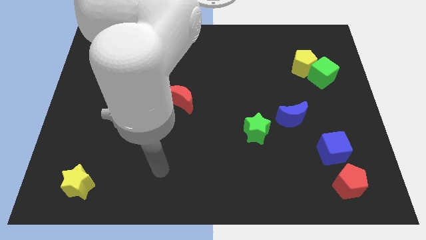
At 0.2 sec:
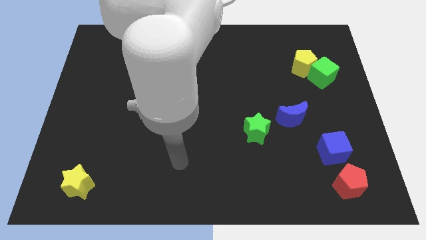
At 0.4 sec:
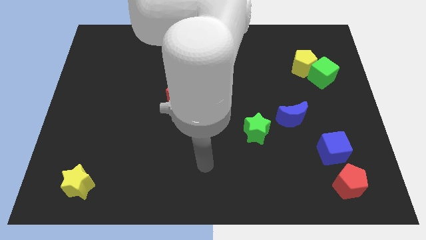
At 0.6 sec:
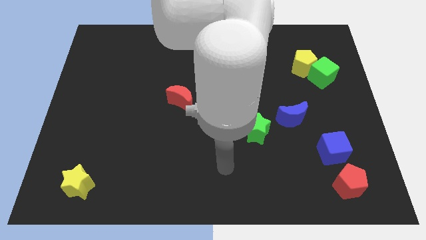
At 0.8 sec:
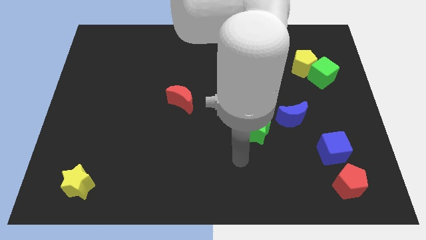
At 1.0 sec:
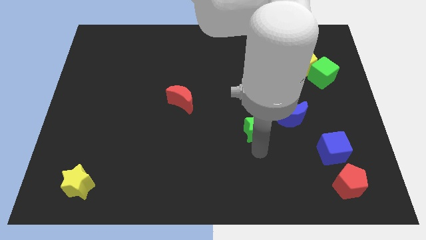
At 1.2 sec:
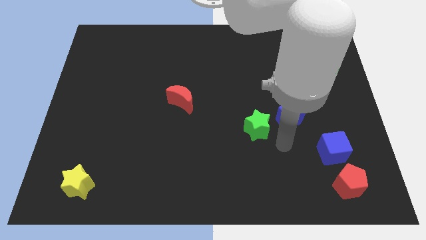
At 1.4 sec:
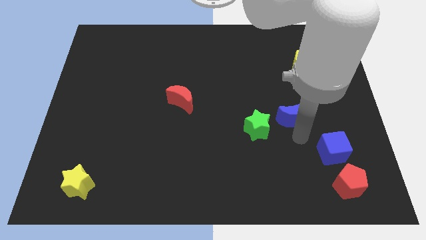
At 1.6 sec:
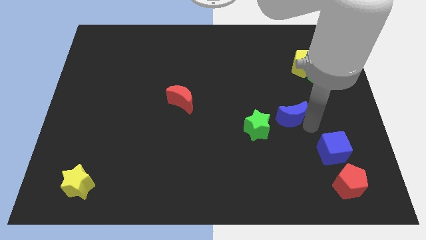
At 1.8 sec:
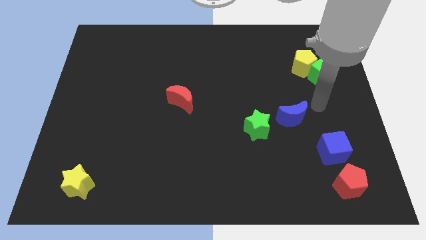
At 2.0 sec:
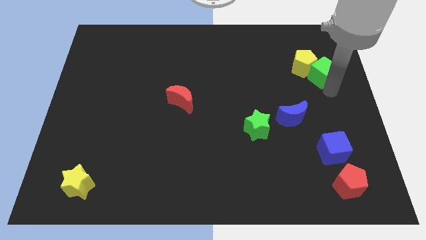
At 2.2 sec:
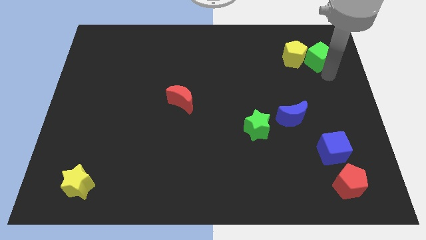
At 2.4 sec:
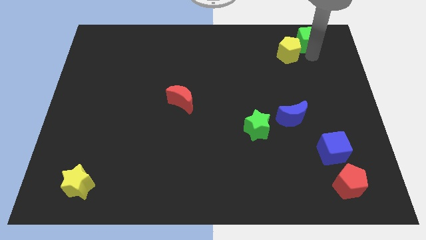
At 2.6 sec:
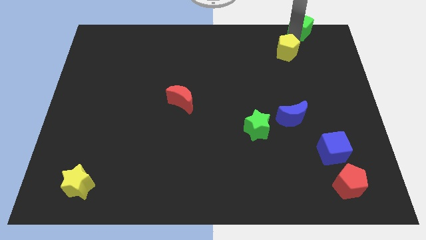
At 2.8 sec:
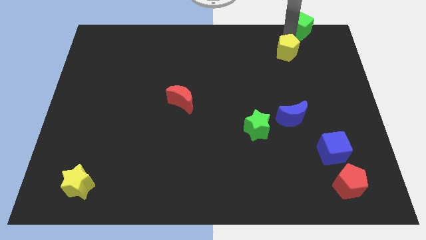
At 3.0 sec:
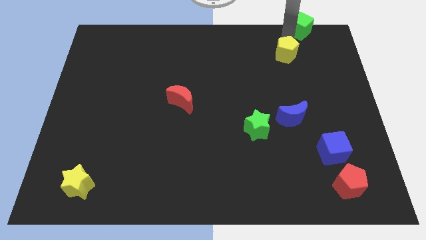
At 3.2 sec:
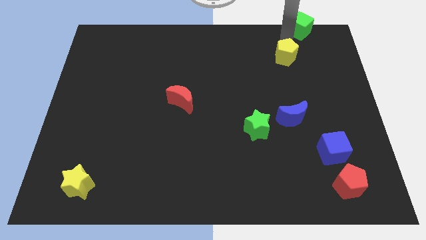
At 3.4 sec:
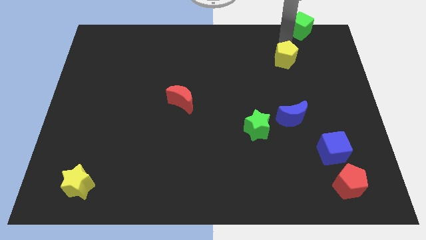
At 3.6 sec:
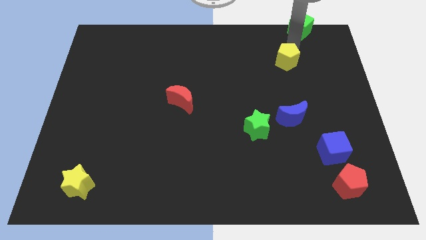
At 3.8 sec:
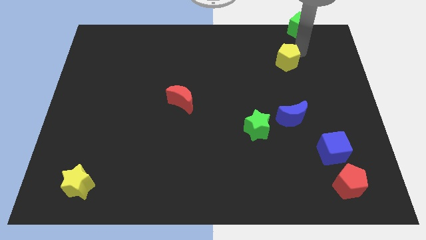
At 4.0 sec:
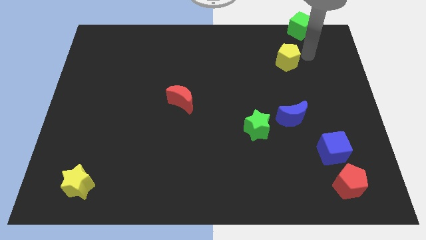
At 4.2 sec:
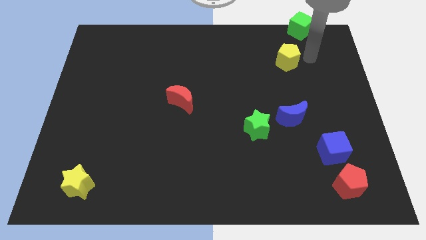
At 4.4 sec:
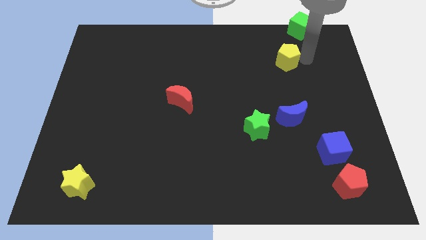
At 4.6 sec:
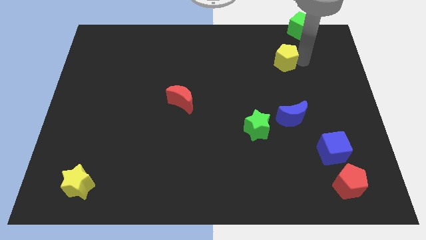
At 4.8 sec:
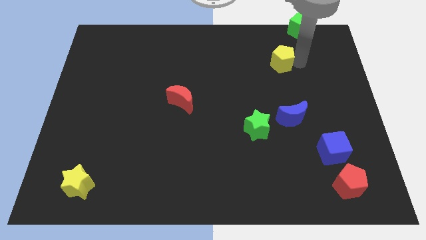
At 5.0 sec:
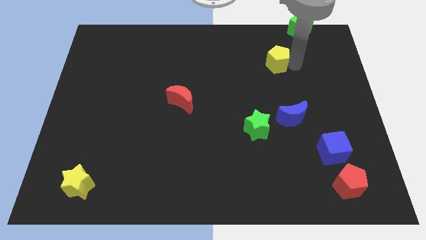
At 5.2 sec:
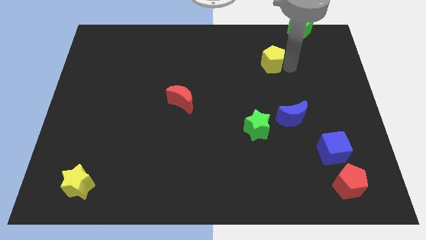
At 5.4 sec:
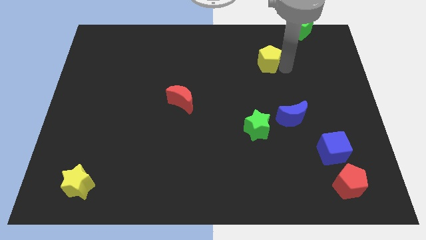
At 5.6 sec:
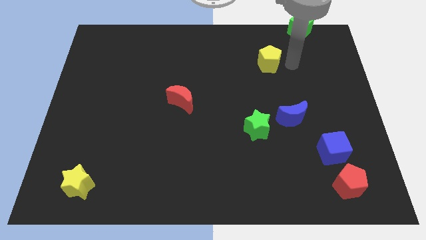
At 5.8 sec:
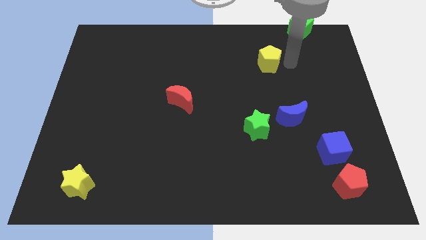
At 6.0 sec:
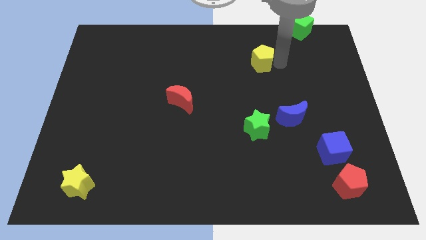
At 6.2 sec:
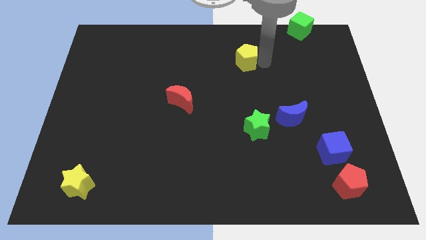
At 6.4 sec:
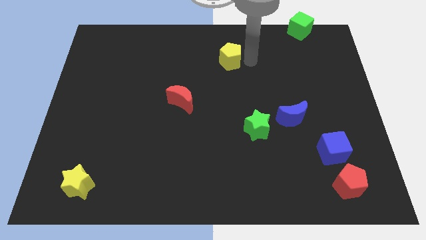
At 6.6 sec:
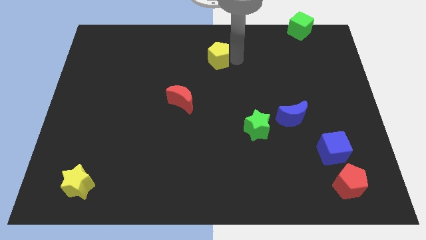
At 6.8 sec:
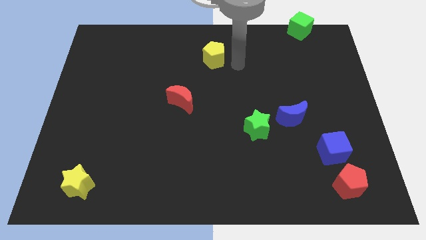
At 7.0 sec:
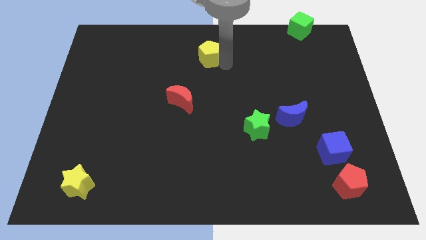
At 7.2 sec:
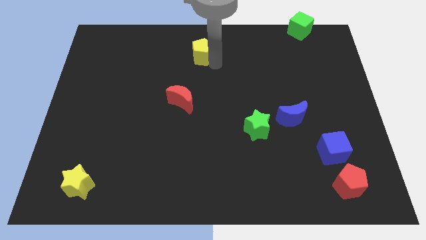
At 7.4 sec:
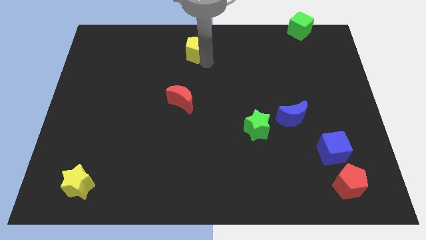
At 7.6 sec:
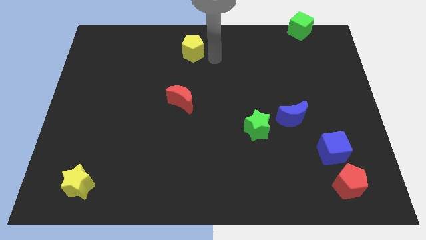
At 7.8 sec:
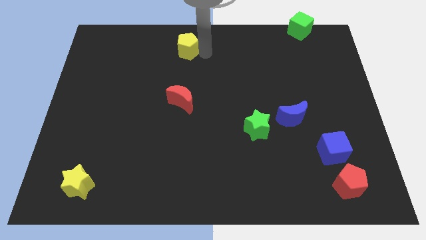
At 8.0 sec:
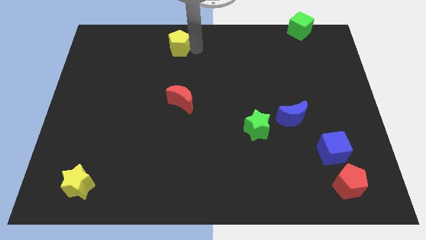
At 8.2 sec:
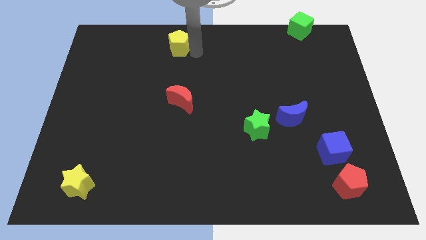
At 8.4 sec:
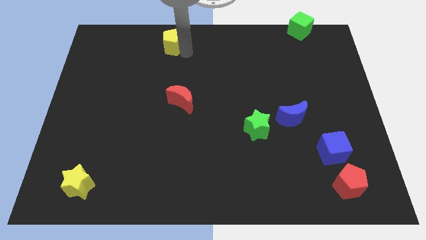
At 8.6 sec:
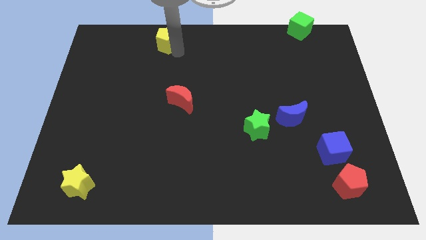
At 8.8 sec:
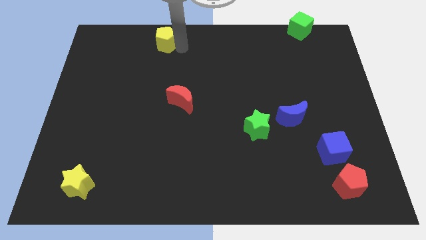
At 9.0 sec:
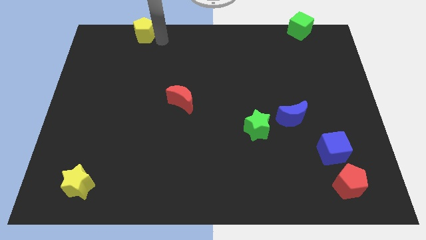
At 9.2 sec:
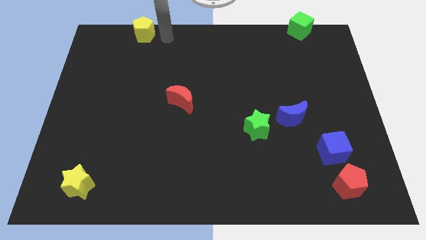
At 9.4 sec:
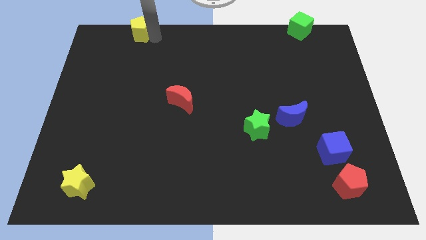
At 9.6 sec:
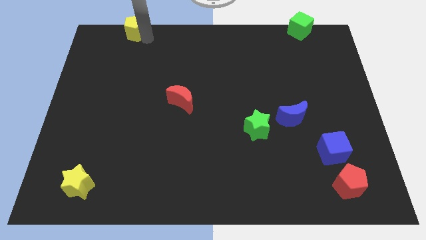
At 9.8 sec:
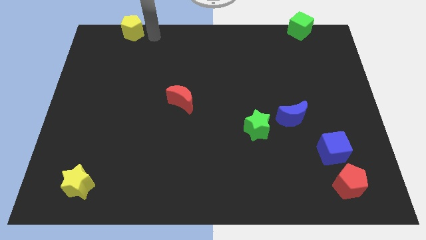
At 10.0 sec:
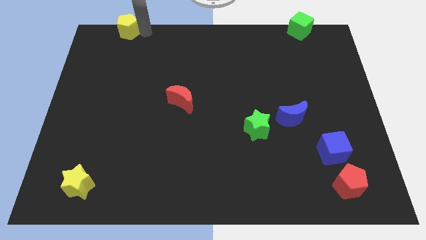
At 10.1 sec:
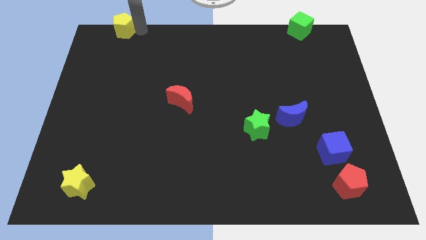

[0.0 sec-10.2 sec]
slide the yellow pentagon to the top left of the board

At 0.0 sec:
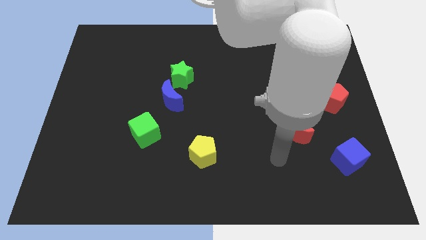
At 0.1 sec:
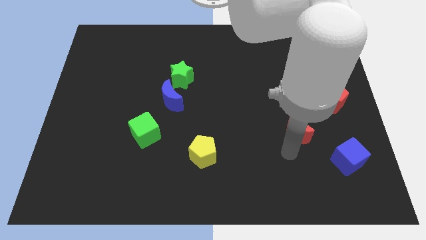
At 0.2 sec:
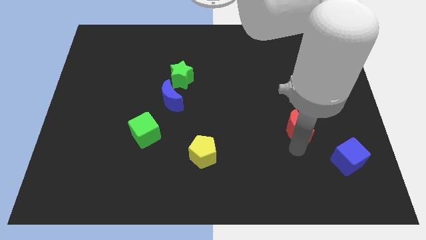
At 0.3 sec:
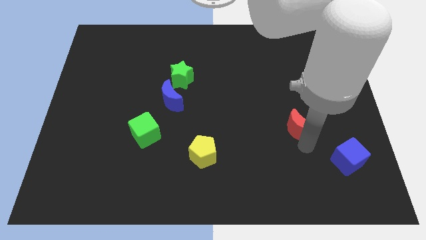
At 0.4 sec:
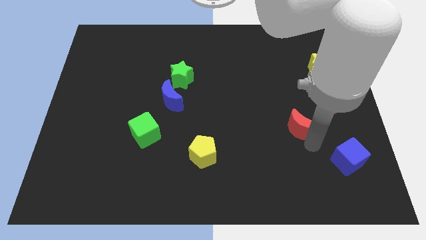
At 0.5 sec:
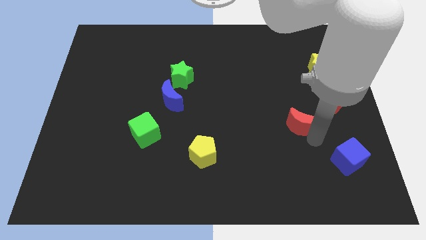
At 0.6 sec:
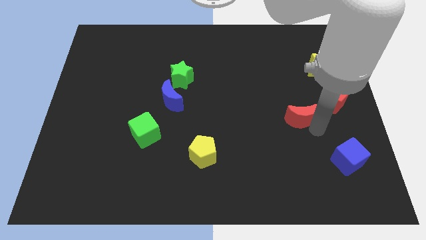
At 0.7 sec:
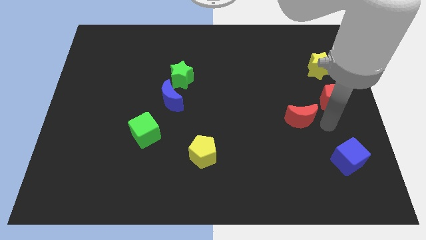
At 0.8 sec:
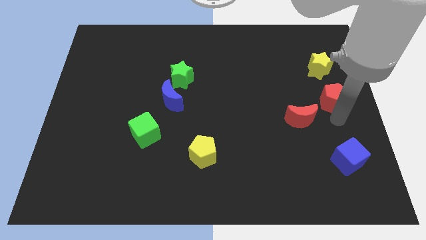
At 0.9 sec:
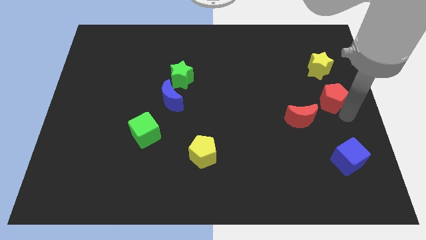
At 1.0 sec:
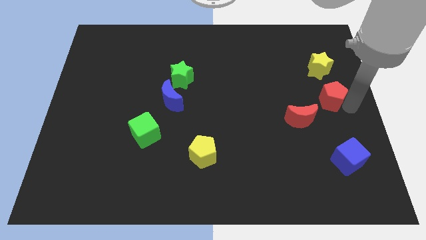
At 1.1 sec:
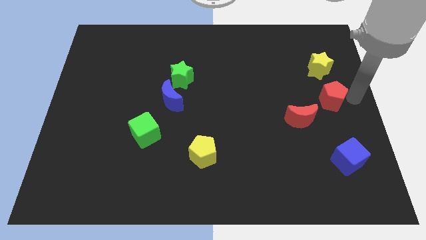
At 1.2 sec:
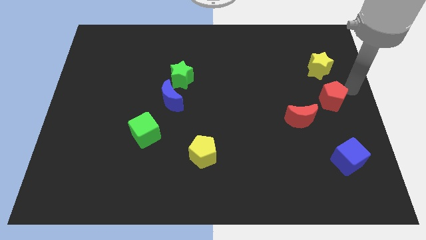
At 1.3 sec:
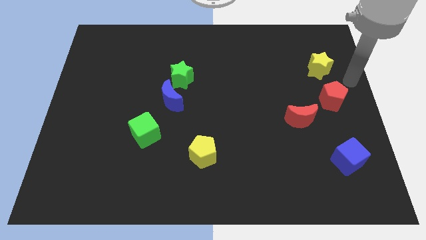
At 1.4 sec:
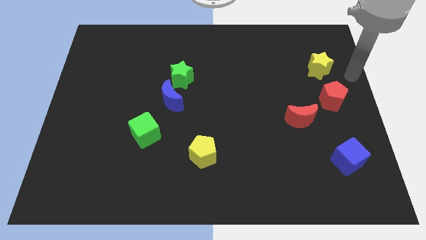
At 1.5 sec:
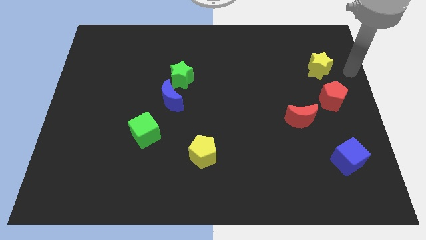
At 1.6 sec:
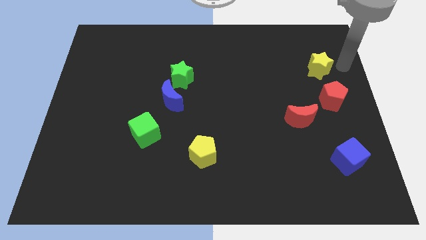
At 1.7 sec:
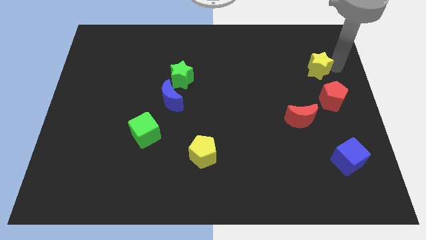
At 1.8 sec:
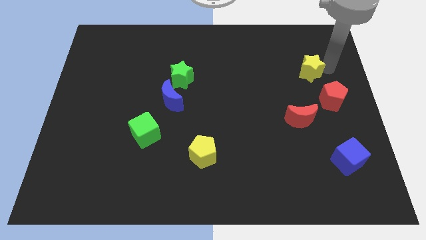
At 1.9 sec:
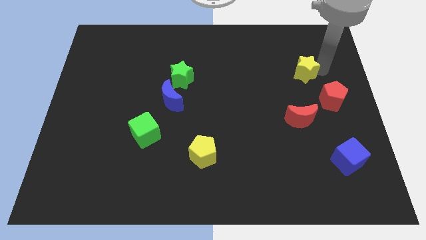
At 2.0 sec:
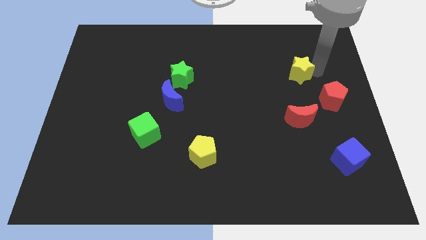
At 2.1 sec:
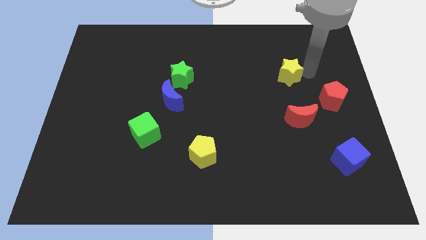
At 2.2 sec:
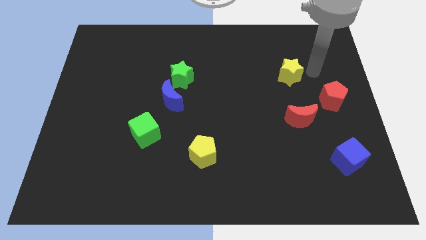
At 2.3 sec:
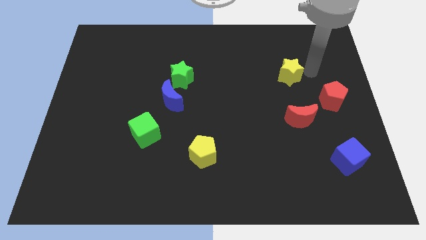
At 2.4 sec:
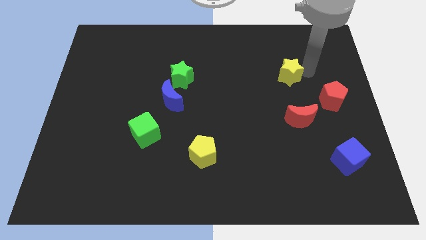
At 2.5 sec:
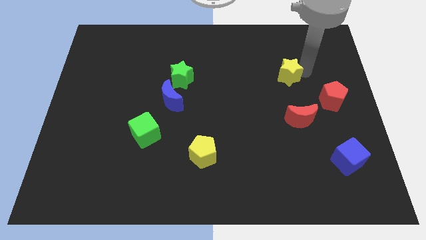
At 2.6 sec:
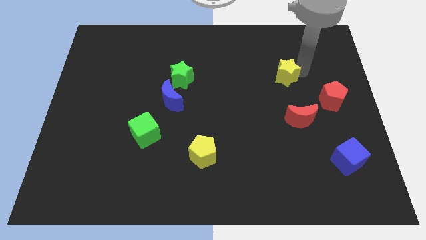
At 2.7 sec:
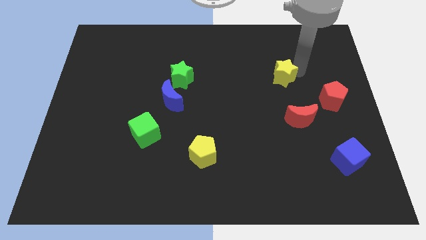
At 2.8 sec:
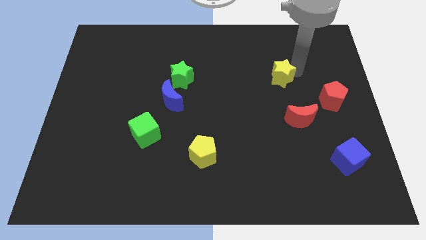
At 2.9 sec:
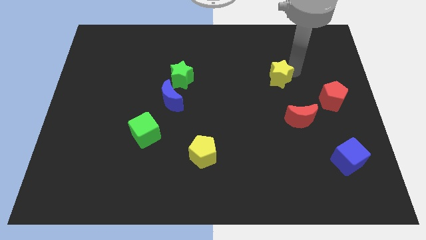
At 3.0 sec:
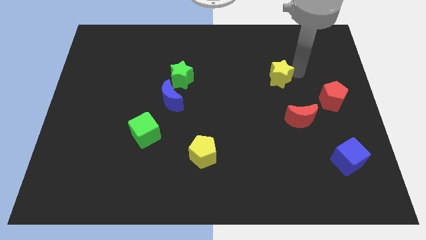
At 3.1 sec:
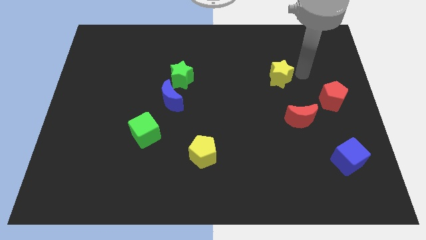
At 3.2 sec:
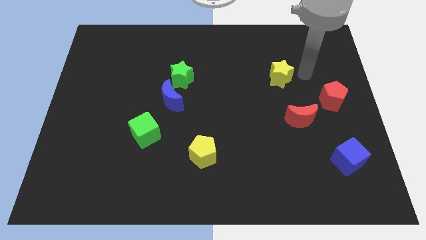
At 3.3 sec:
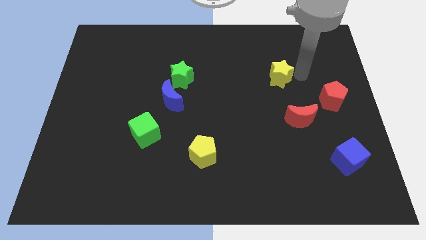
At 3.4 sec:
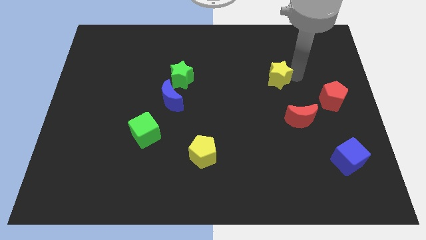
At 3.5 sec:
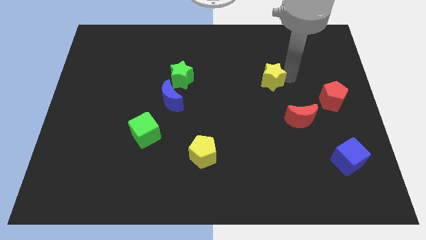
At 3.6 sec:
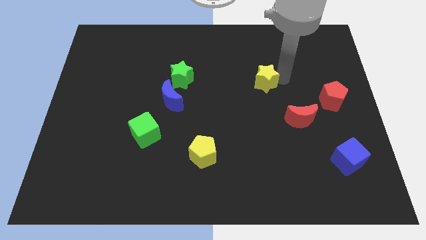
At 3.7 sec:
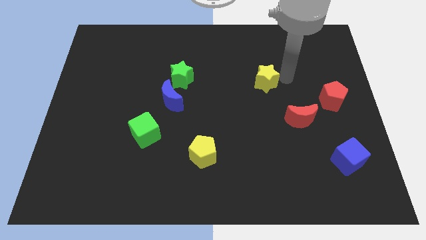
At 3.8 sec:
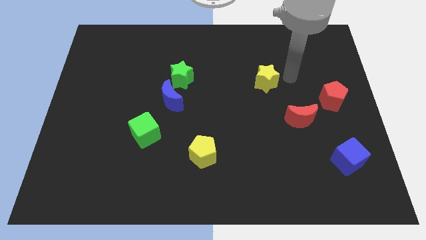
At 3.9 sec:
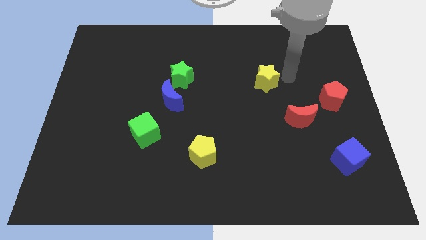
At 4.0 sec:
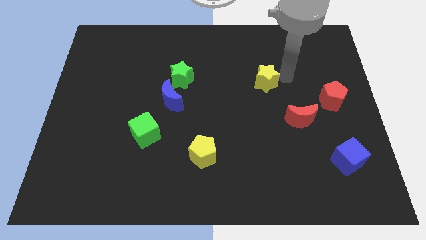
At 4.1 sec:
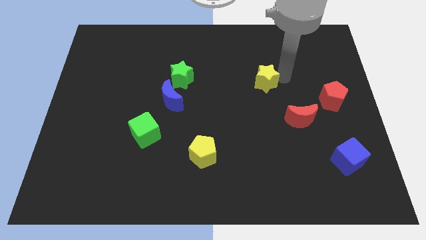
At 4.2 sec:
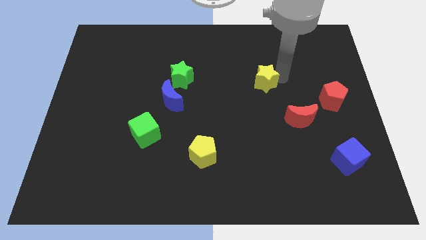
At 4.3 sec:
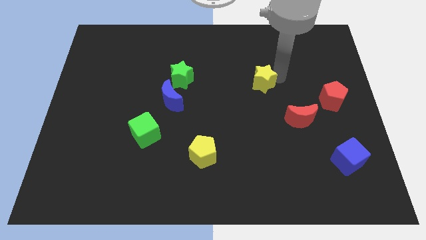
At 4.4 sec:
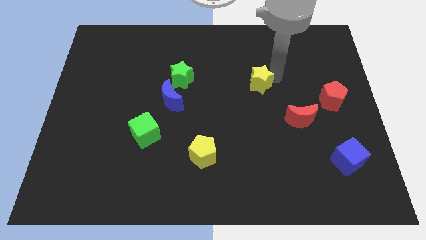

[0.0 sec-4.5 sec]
slide the yellow star to the center of the board
